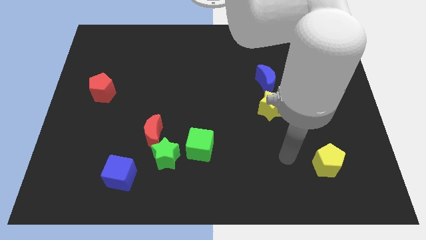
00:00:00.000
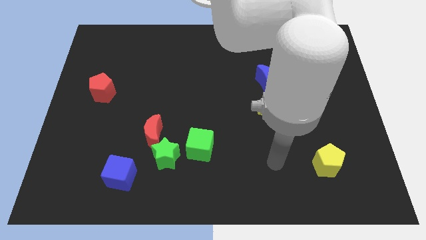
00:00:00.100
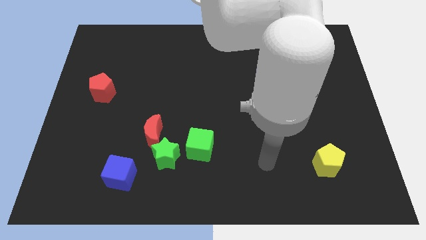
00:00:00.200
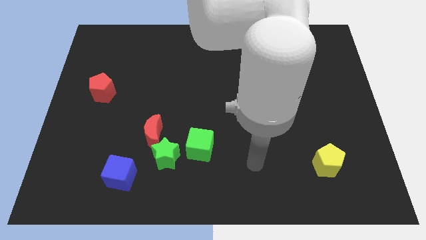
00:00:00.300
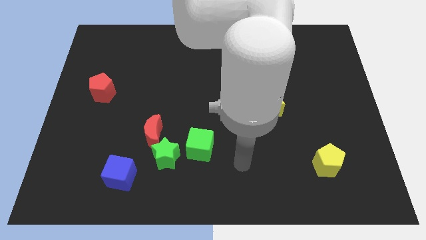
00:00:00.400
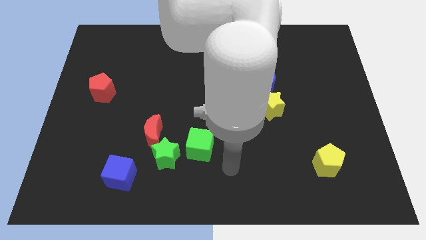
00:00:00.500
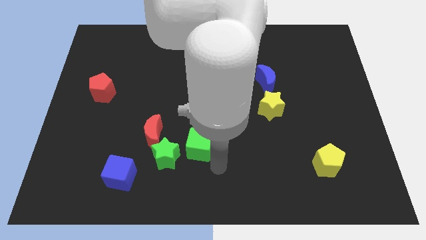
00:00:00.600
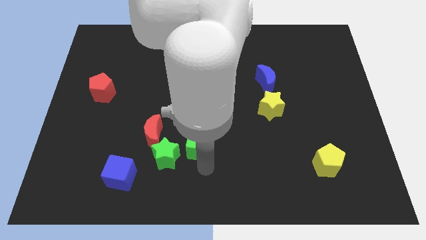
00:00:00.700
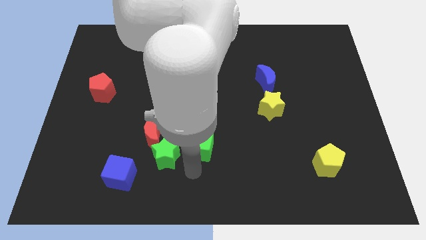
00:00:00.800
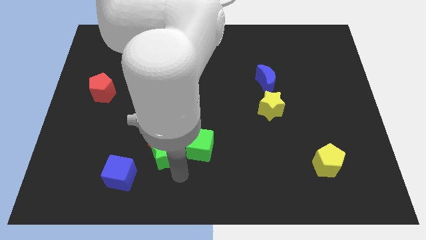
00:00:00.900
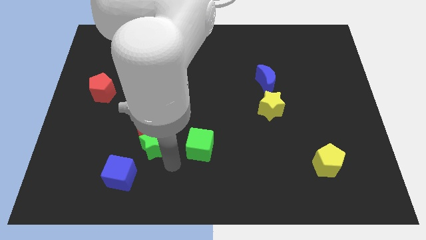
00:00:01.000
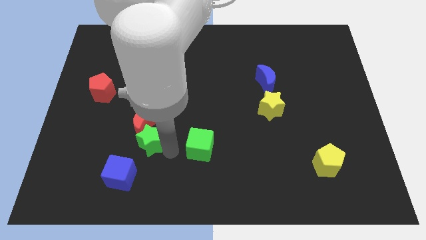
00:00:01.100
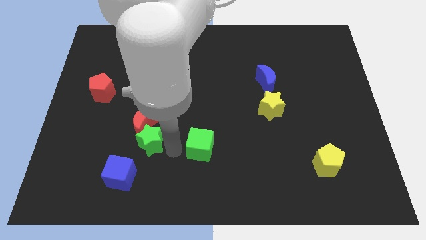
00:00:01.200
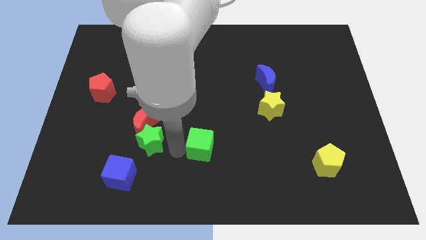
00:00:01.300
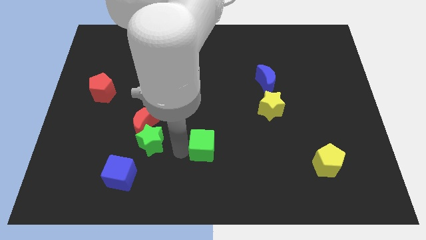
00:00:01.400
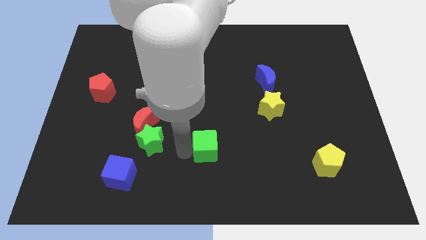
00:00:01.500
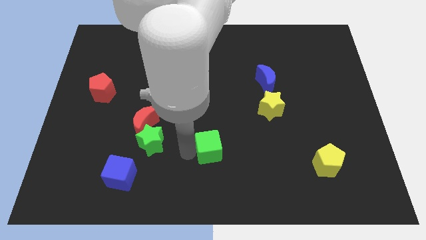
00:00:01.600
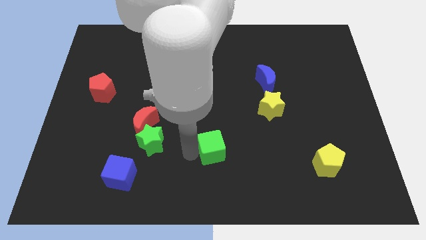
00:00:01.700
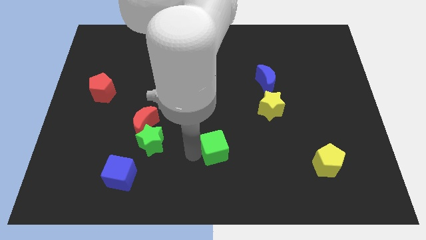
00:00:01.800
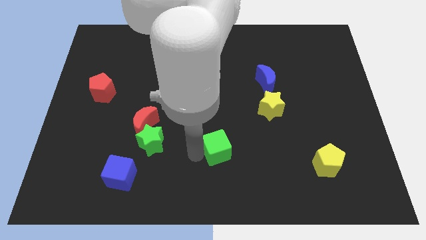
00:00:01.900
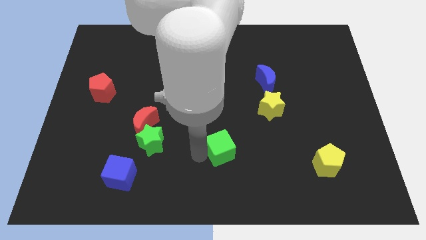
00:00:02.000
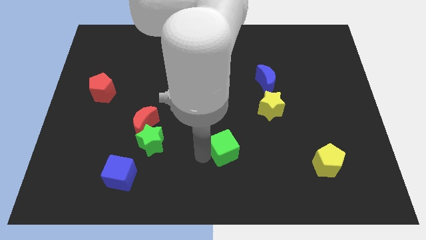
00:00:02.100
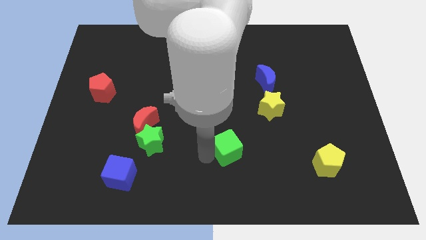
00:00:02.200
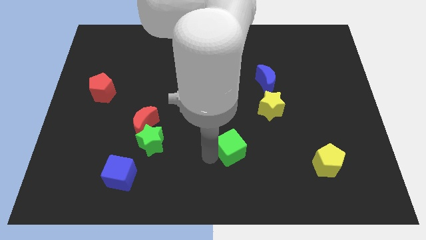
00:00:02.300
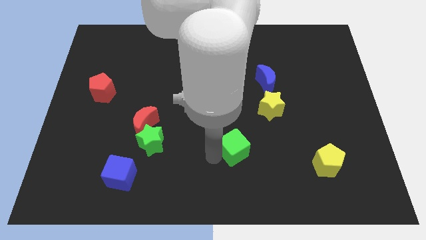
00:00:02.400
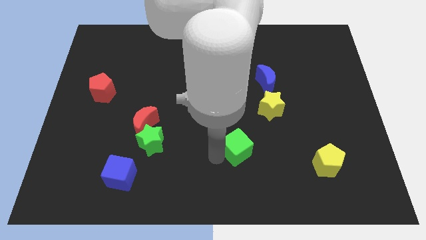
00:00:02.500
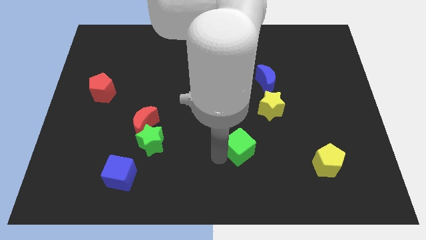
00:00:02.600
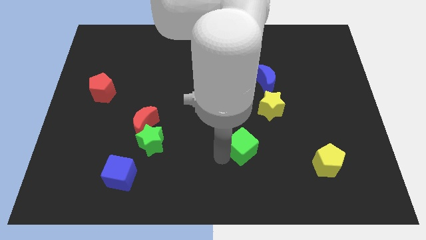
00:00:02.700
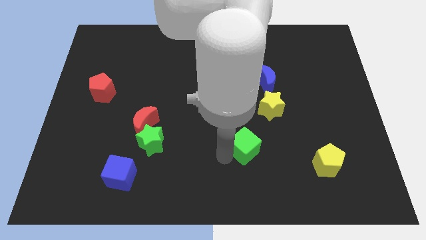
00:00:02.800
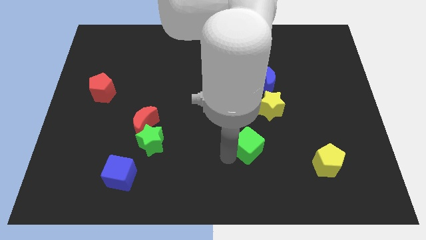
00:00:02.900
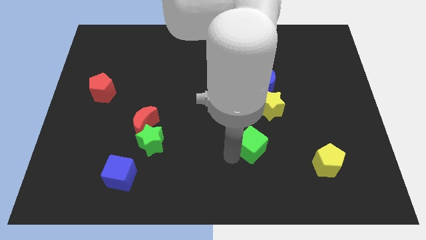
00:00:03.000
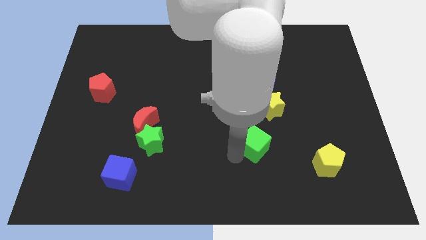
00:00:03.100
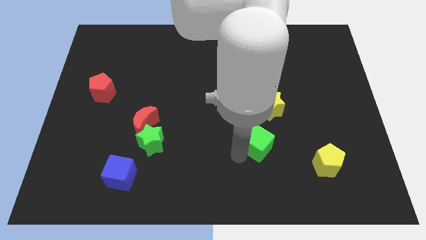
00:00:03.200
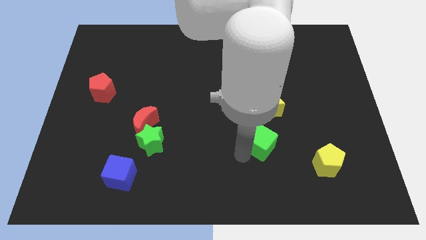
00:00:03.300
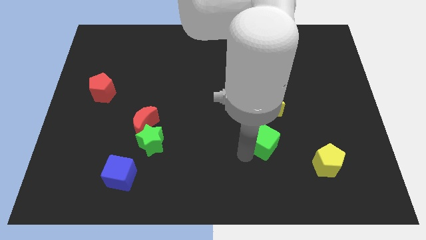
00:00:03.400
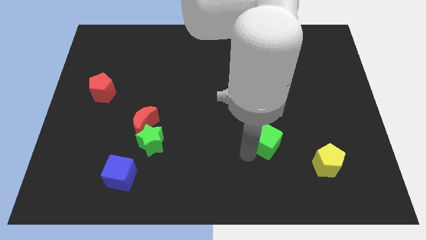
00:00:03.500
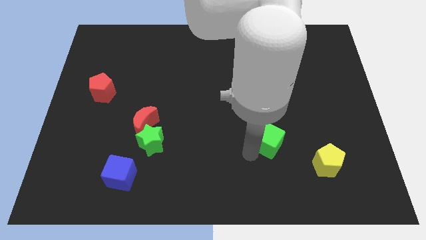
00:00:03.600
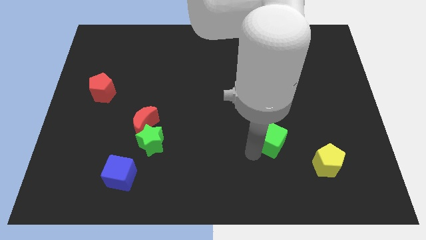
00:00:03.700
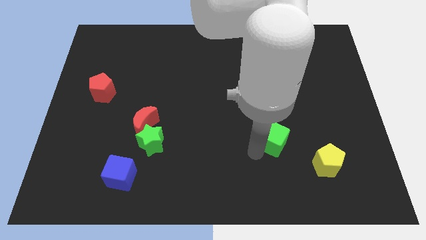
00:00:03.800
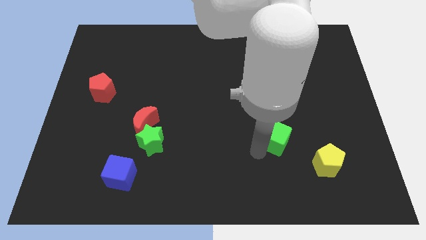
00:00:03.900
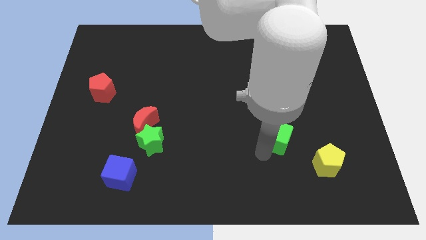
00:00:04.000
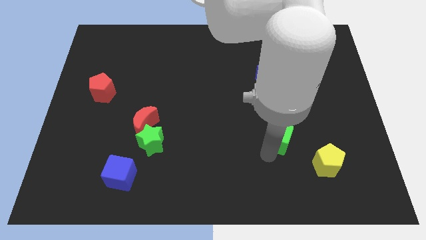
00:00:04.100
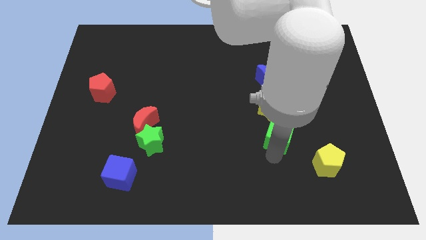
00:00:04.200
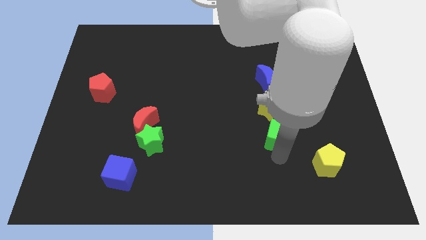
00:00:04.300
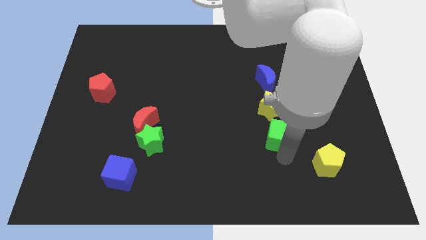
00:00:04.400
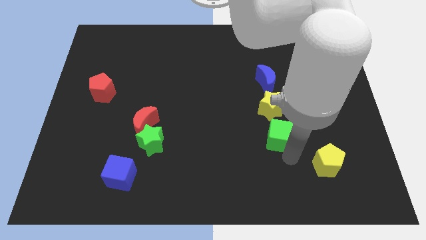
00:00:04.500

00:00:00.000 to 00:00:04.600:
slide the green cube to the bottom of the blue moon

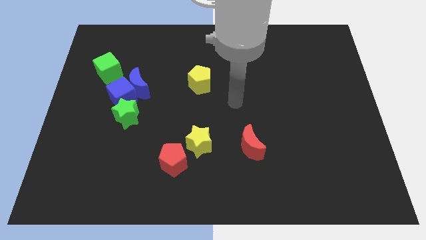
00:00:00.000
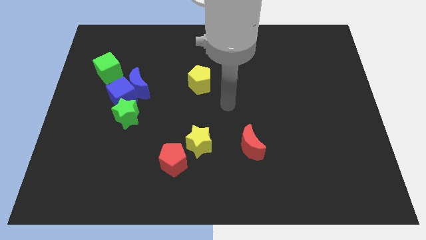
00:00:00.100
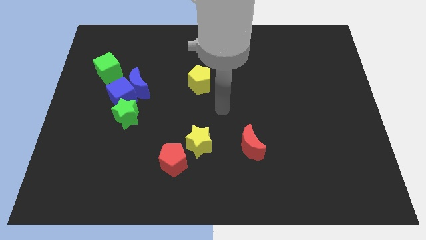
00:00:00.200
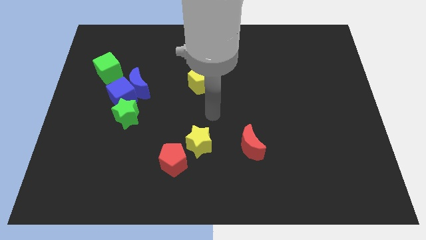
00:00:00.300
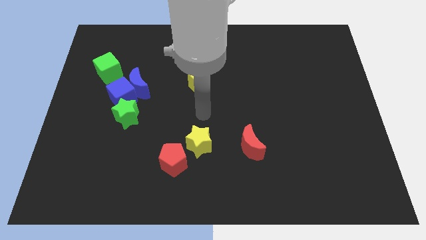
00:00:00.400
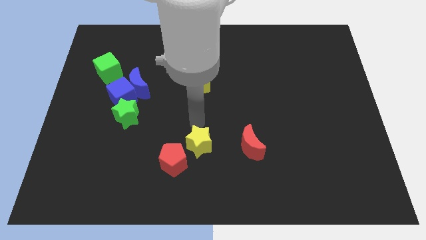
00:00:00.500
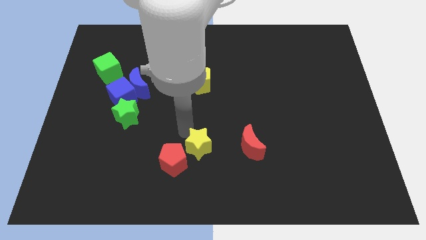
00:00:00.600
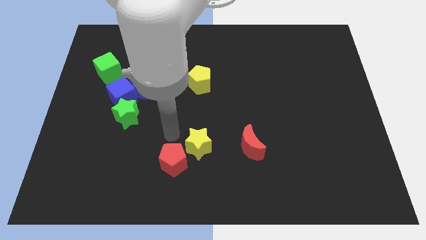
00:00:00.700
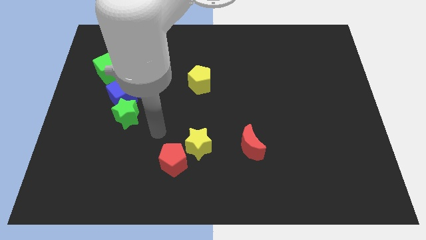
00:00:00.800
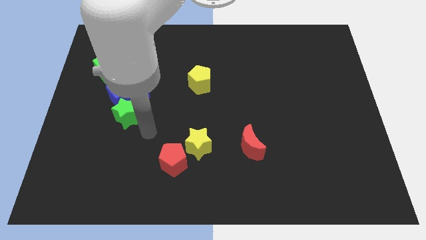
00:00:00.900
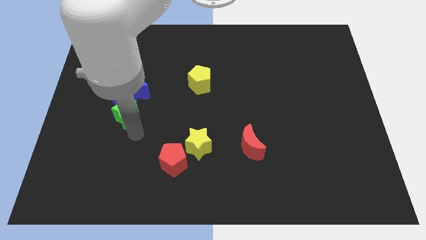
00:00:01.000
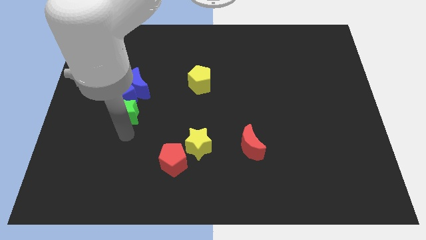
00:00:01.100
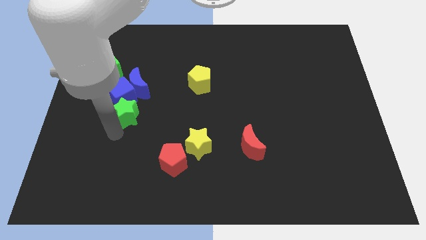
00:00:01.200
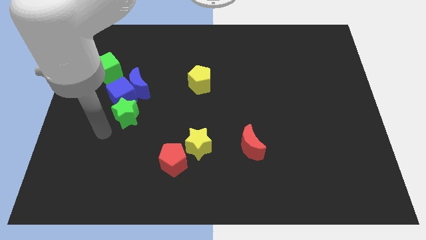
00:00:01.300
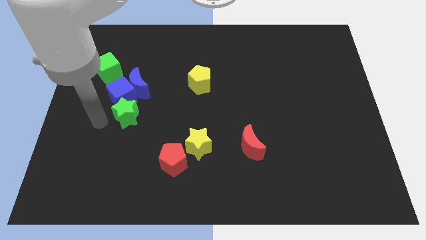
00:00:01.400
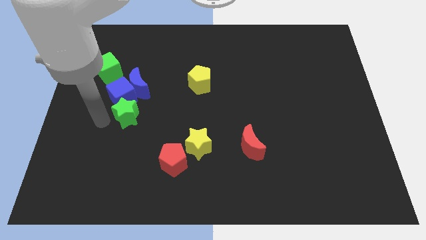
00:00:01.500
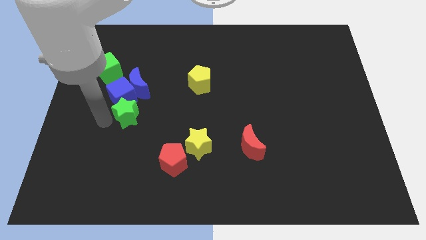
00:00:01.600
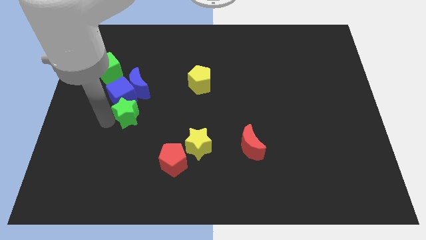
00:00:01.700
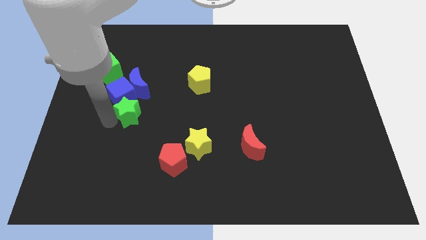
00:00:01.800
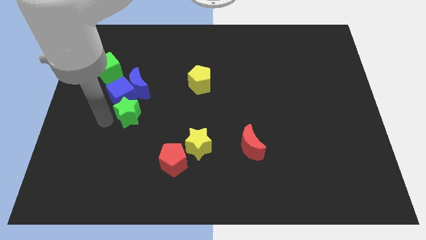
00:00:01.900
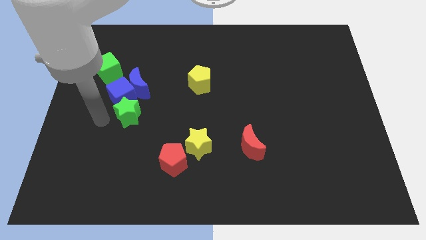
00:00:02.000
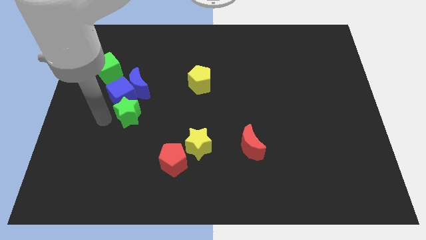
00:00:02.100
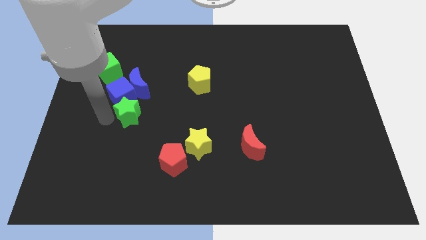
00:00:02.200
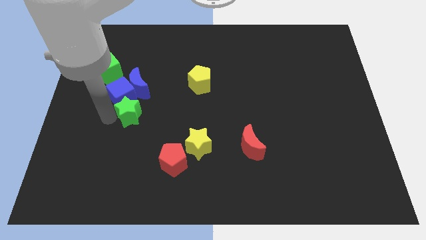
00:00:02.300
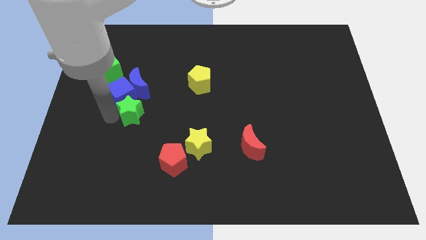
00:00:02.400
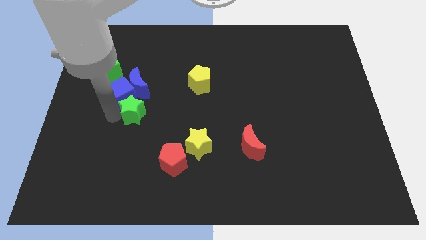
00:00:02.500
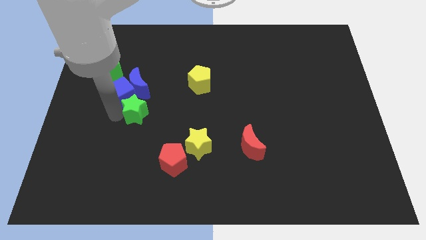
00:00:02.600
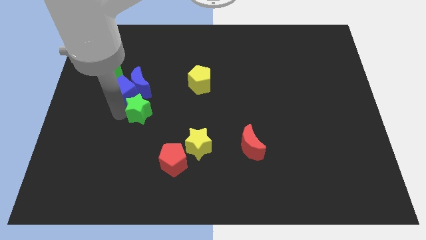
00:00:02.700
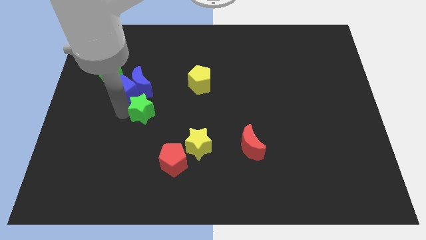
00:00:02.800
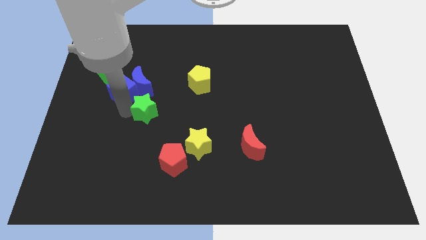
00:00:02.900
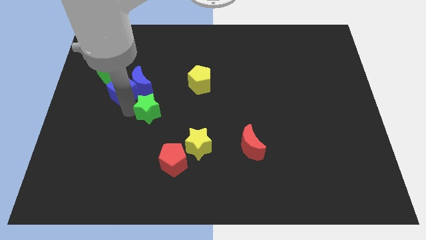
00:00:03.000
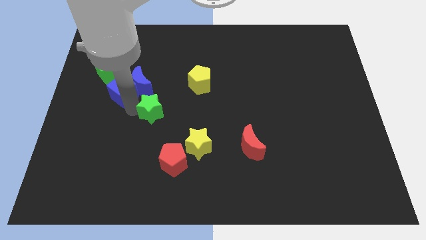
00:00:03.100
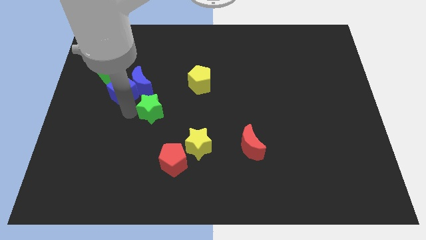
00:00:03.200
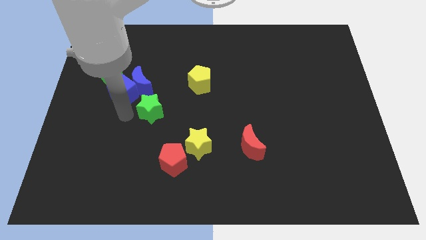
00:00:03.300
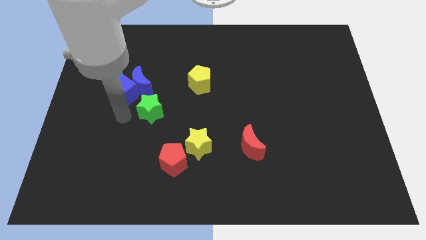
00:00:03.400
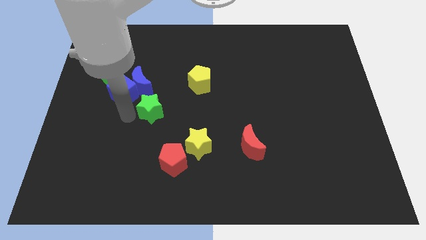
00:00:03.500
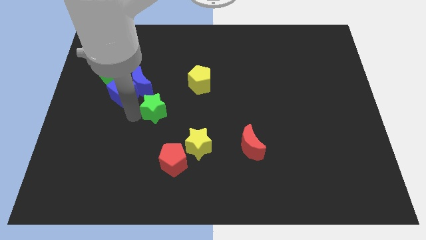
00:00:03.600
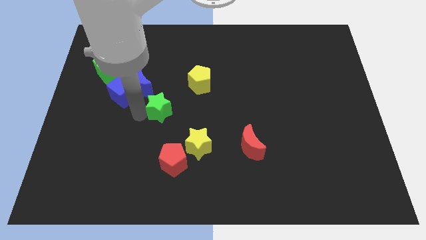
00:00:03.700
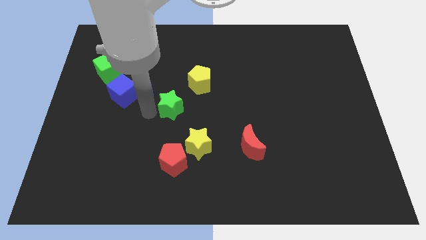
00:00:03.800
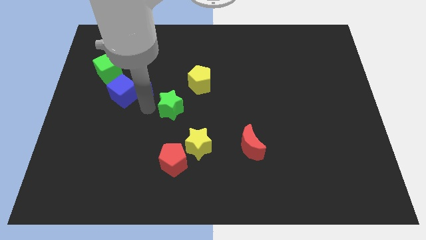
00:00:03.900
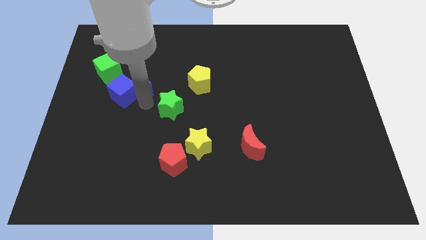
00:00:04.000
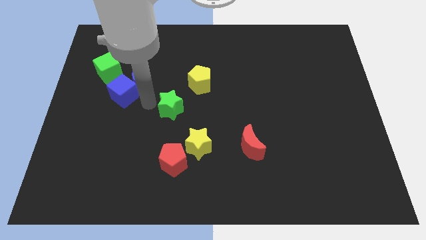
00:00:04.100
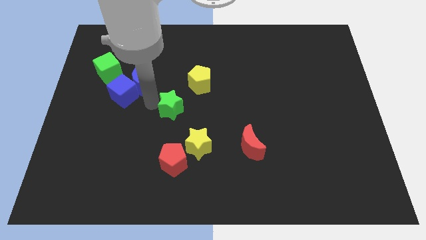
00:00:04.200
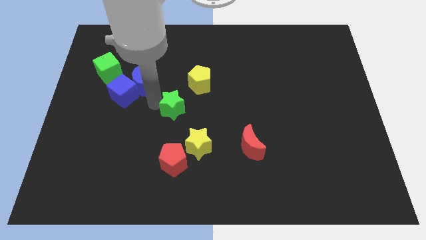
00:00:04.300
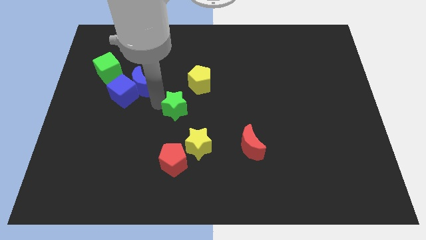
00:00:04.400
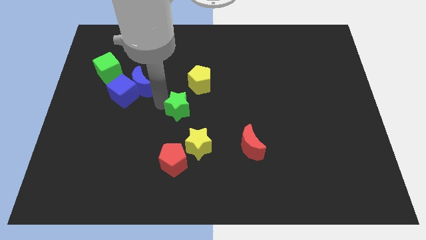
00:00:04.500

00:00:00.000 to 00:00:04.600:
put the green star to the bottom of the yellow pentagon
